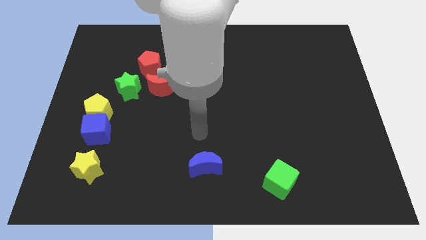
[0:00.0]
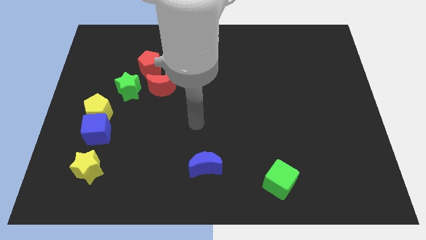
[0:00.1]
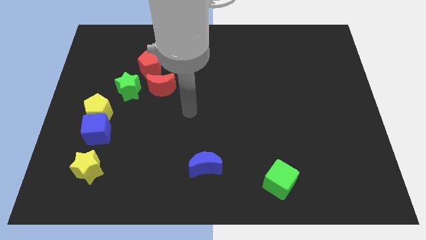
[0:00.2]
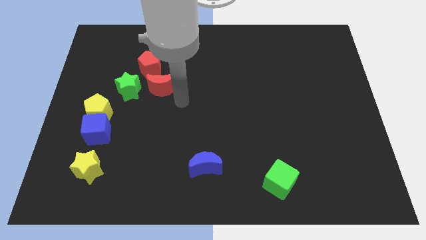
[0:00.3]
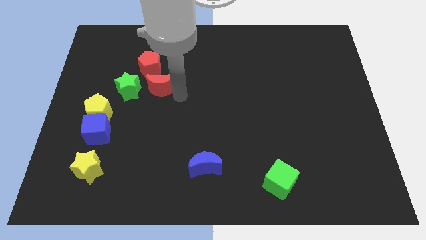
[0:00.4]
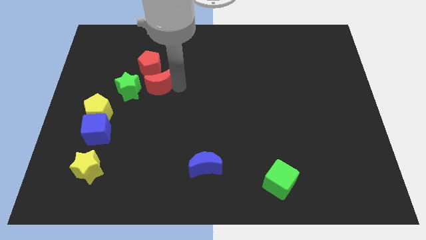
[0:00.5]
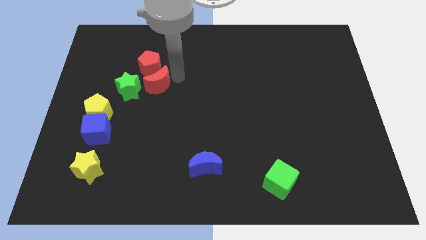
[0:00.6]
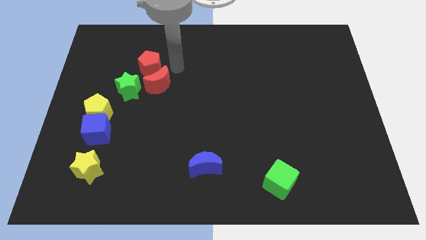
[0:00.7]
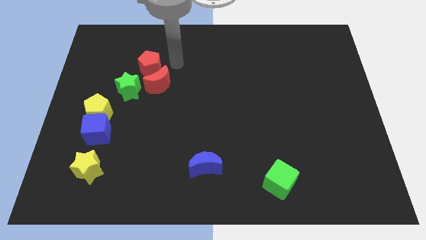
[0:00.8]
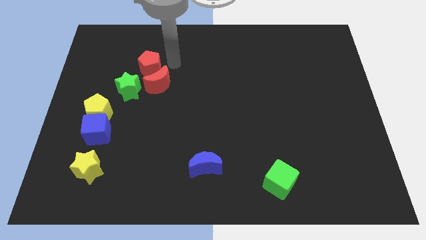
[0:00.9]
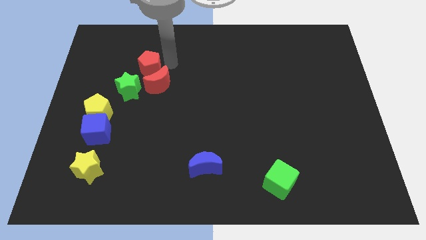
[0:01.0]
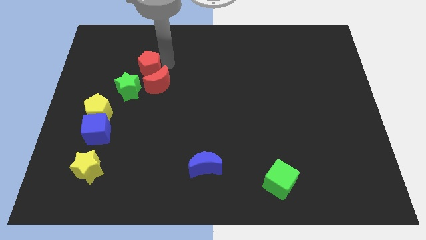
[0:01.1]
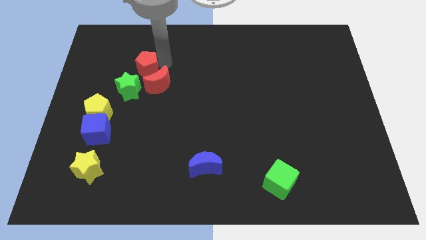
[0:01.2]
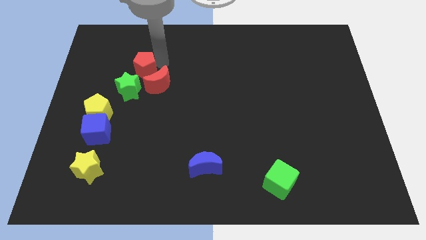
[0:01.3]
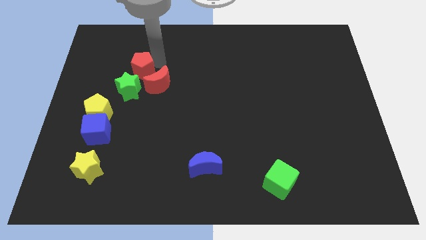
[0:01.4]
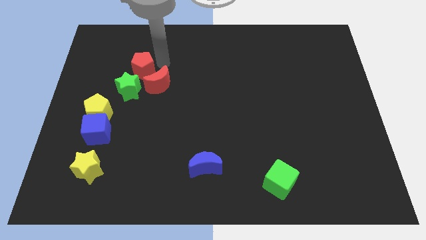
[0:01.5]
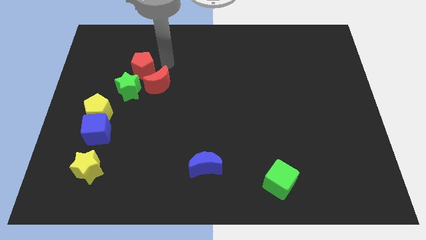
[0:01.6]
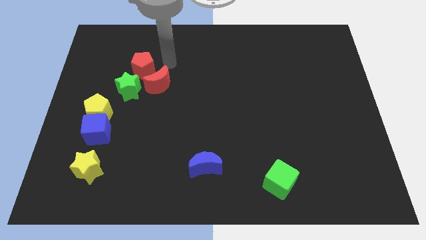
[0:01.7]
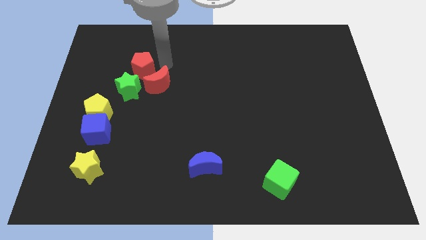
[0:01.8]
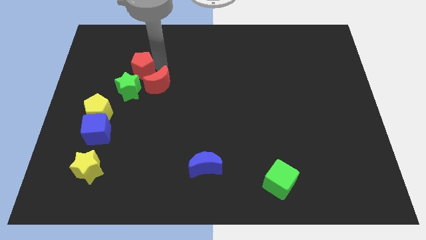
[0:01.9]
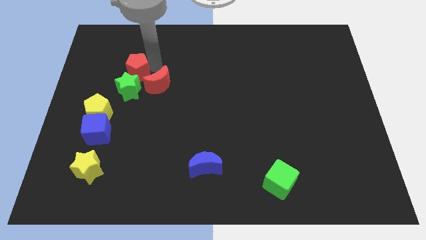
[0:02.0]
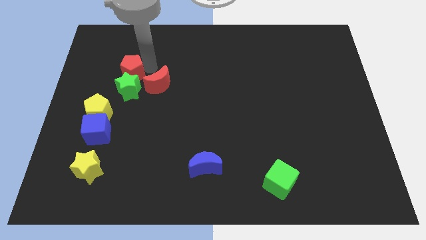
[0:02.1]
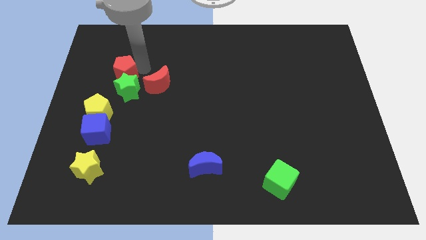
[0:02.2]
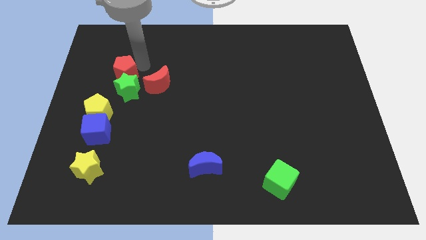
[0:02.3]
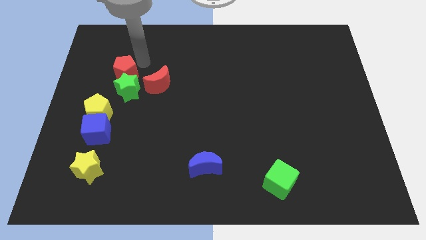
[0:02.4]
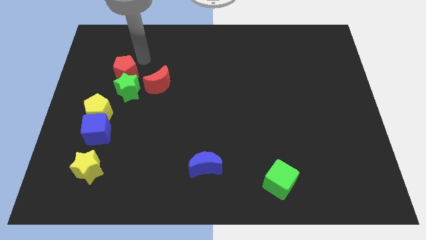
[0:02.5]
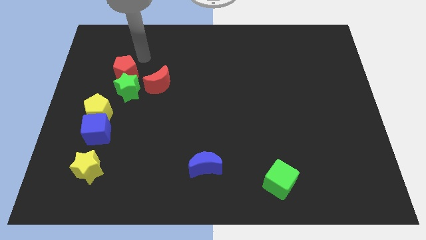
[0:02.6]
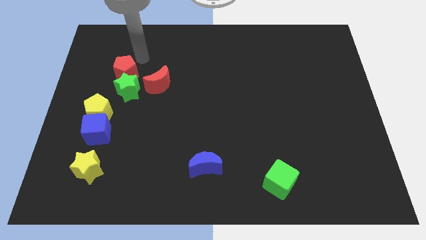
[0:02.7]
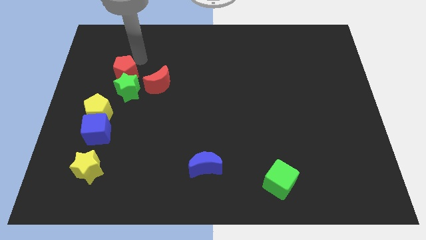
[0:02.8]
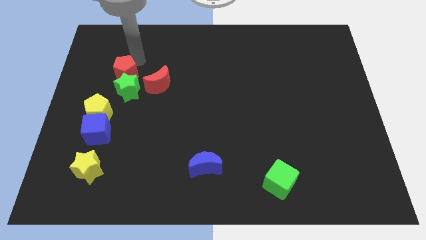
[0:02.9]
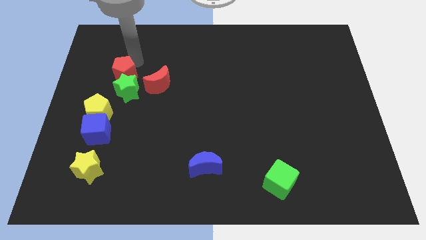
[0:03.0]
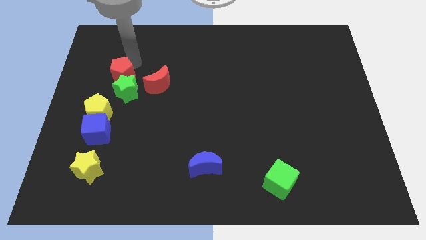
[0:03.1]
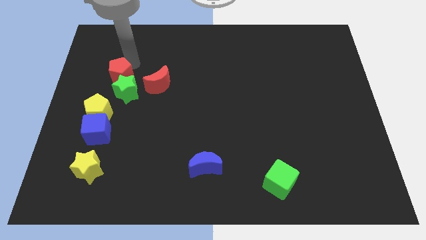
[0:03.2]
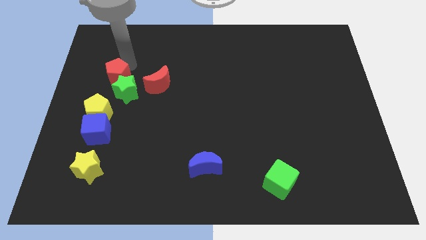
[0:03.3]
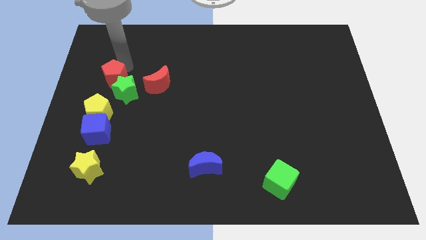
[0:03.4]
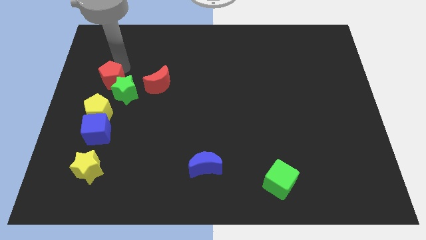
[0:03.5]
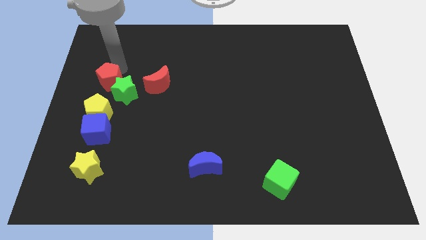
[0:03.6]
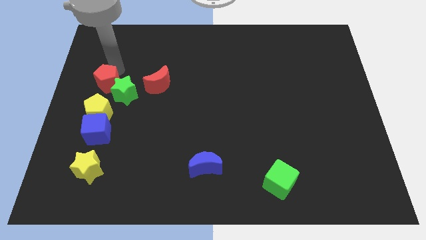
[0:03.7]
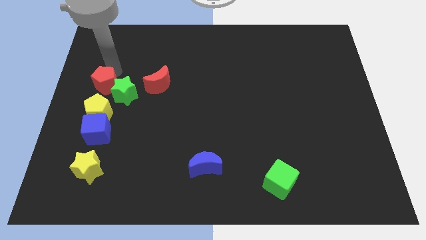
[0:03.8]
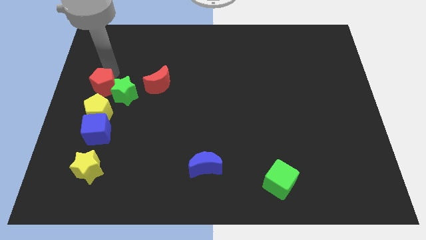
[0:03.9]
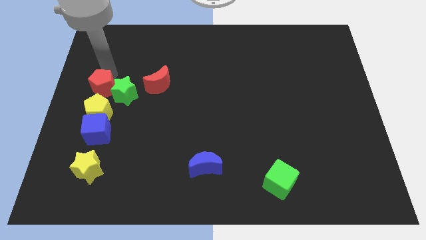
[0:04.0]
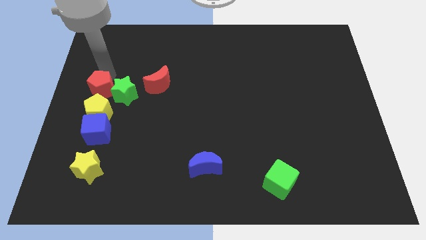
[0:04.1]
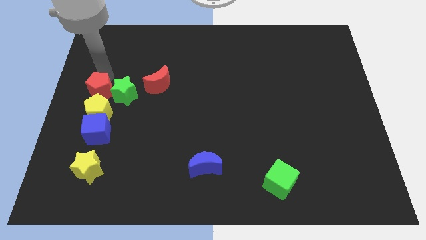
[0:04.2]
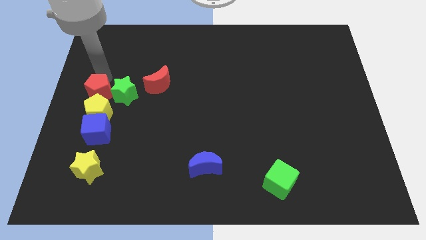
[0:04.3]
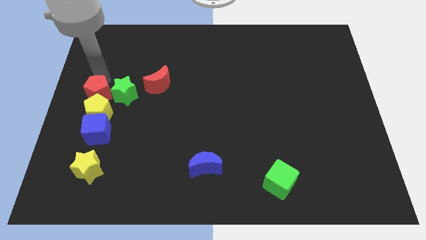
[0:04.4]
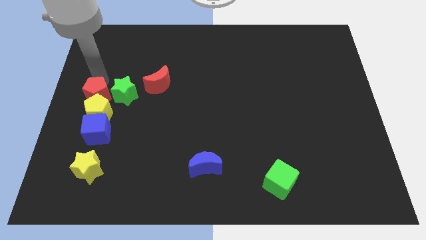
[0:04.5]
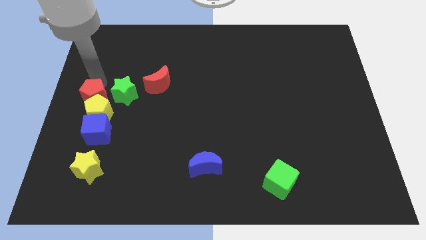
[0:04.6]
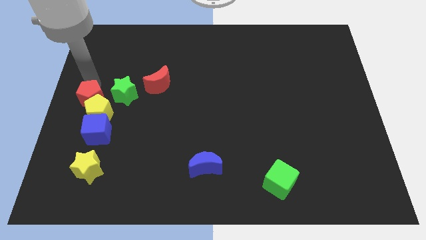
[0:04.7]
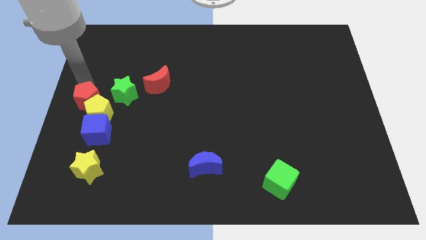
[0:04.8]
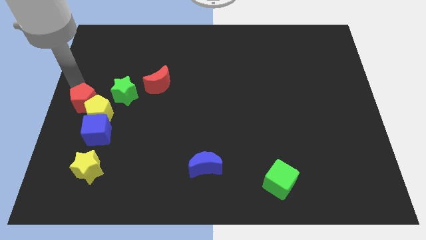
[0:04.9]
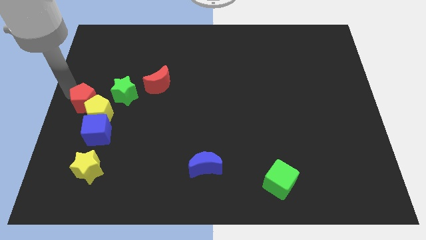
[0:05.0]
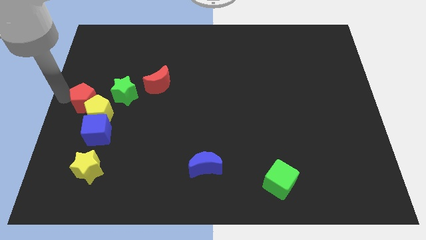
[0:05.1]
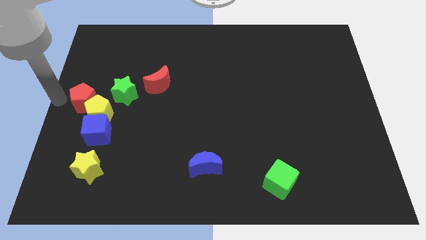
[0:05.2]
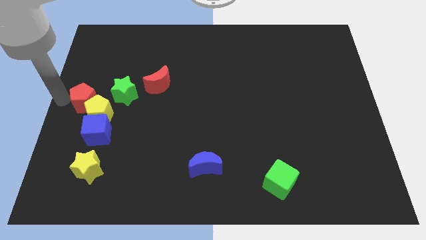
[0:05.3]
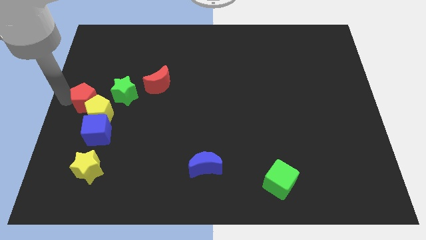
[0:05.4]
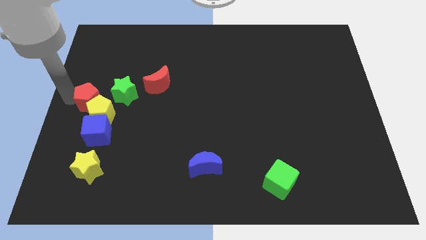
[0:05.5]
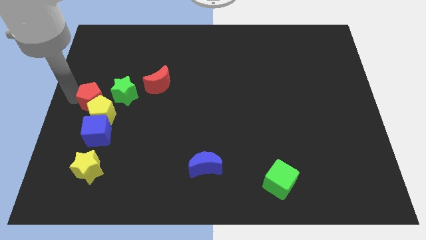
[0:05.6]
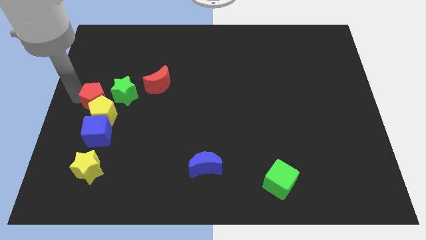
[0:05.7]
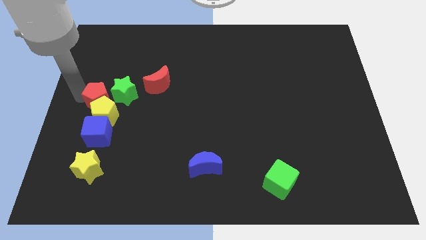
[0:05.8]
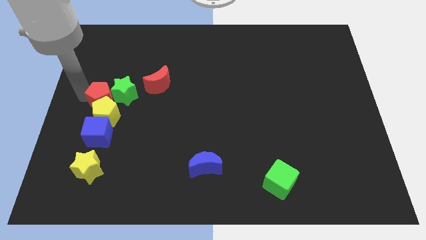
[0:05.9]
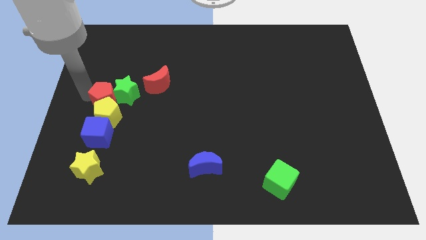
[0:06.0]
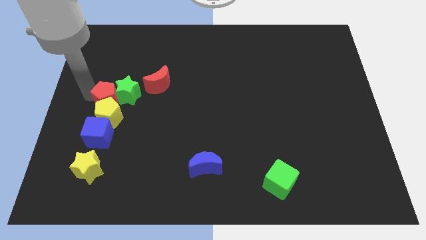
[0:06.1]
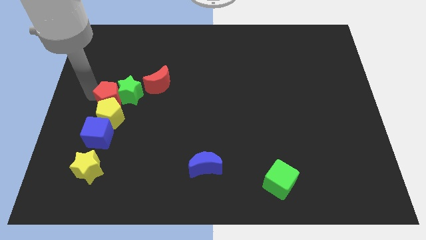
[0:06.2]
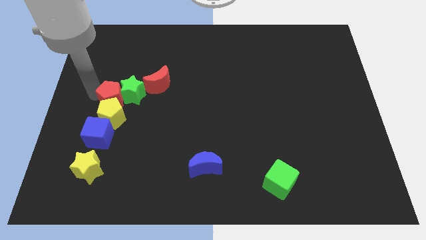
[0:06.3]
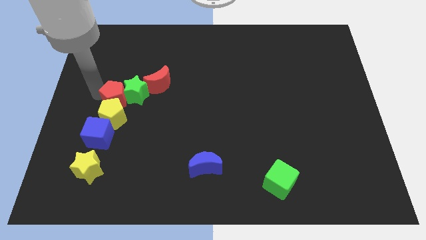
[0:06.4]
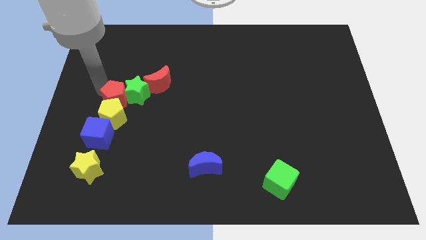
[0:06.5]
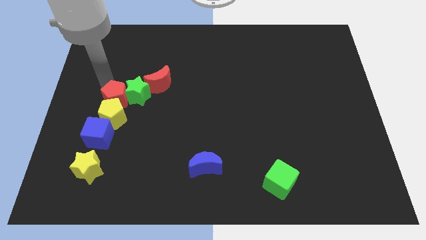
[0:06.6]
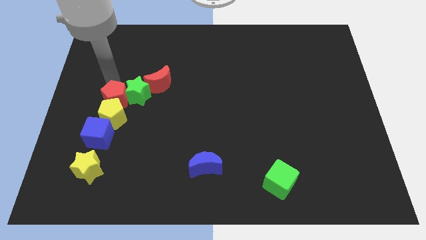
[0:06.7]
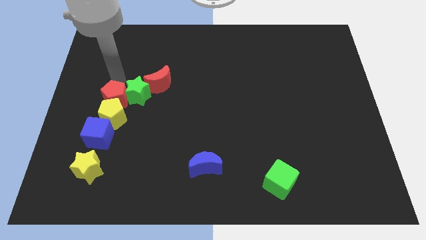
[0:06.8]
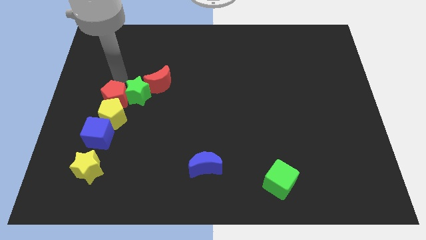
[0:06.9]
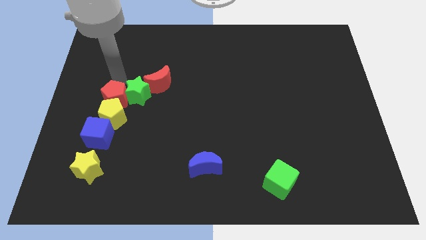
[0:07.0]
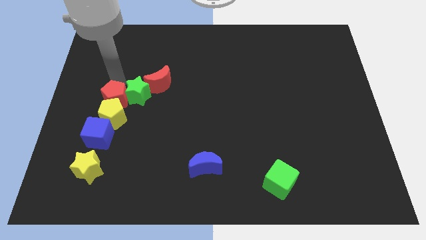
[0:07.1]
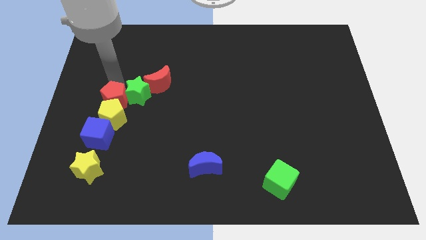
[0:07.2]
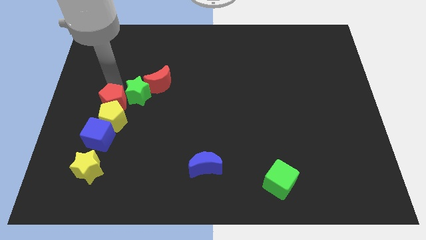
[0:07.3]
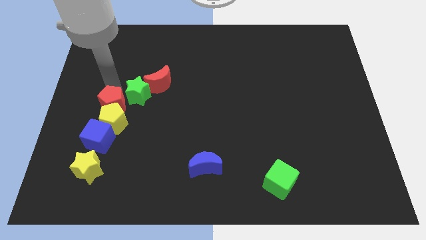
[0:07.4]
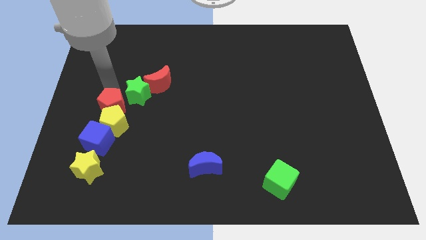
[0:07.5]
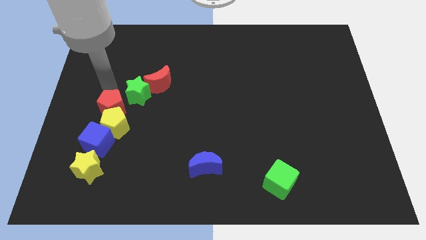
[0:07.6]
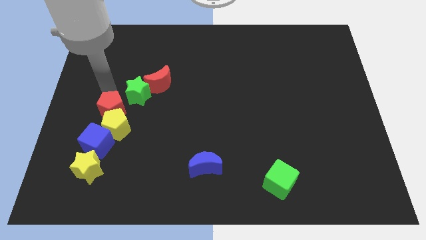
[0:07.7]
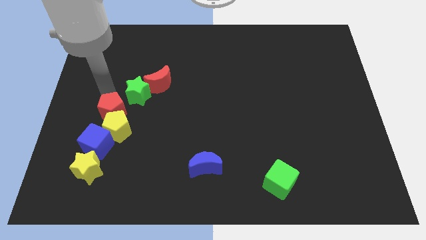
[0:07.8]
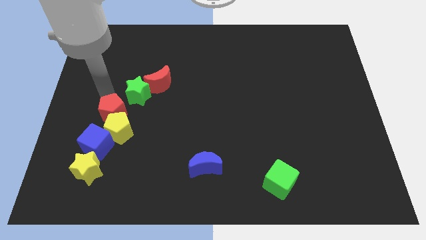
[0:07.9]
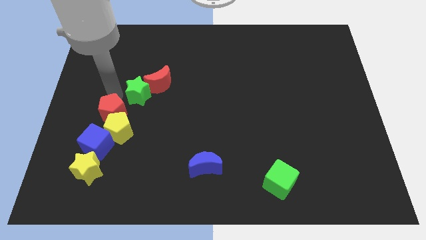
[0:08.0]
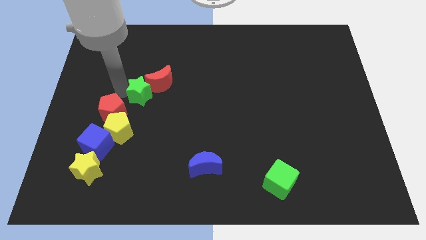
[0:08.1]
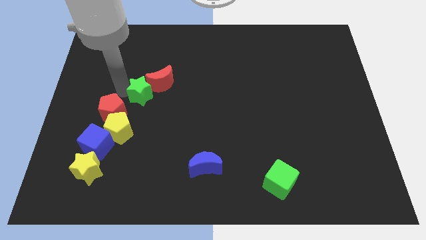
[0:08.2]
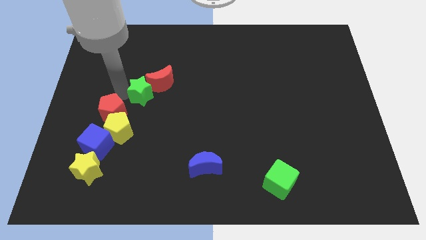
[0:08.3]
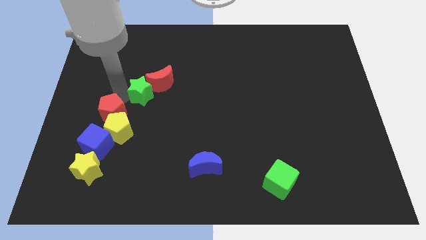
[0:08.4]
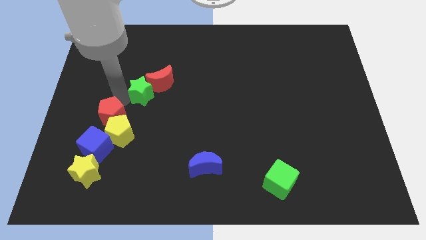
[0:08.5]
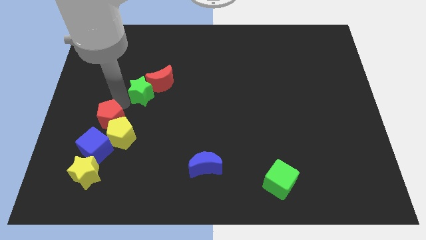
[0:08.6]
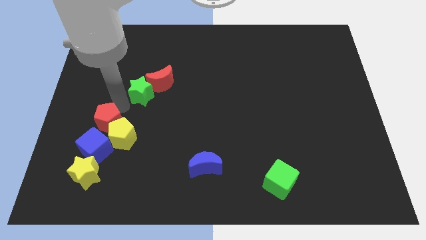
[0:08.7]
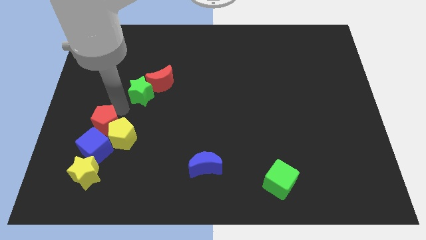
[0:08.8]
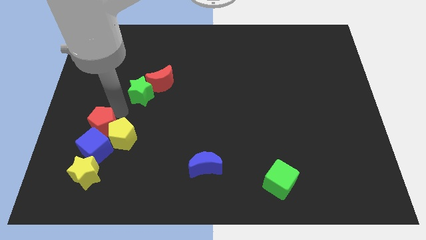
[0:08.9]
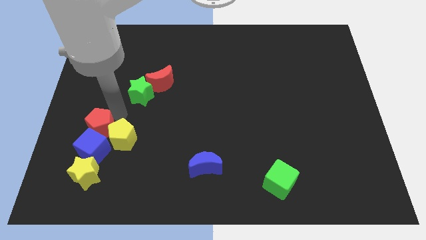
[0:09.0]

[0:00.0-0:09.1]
slide the red pentagon close to the blue cube
